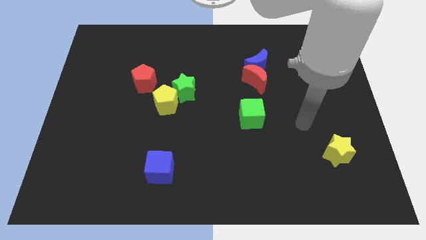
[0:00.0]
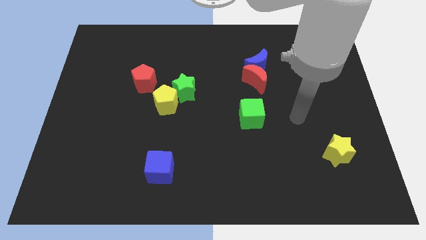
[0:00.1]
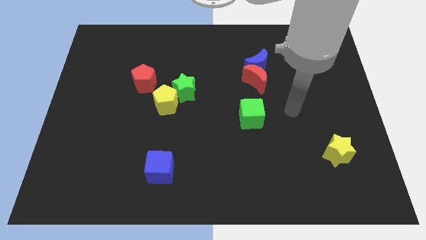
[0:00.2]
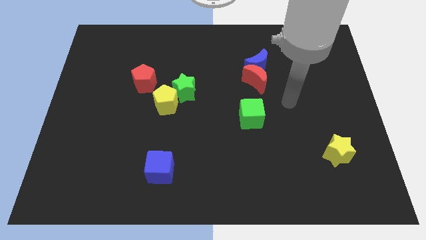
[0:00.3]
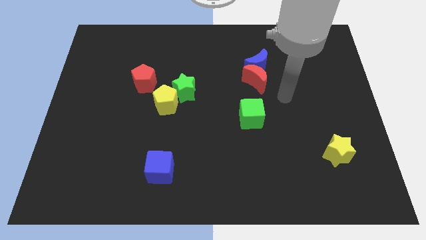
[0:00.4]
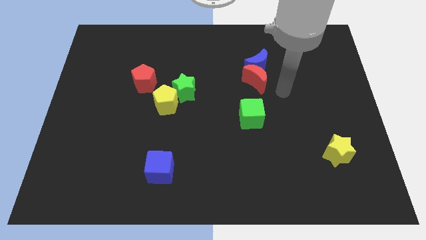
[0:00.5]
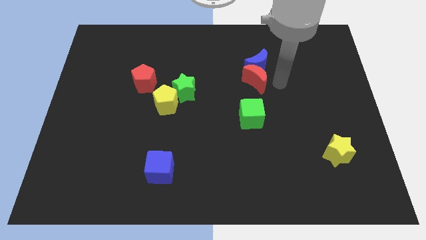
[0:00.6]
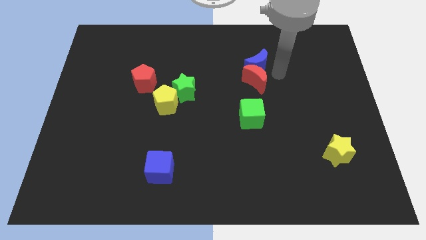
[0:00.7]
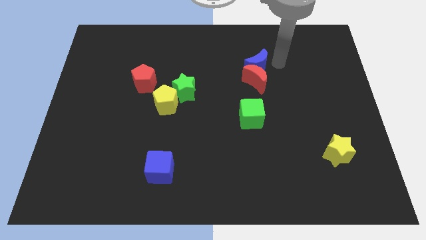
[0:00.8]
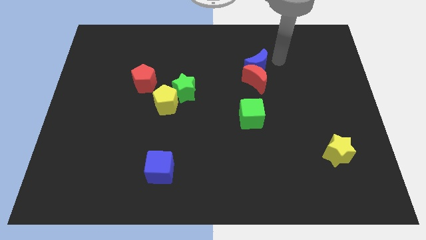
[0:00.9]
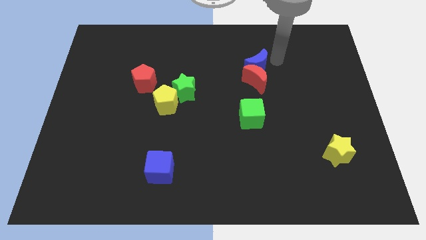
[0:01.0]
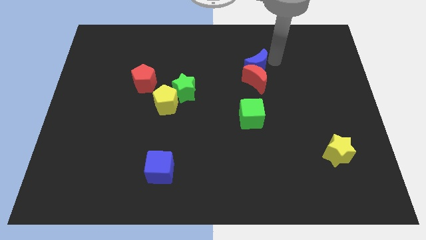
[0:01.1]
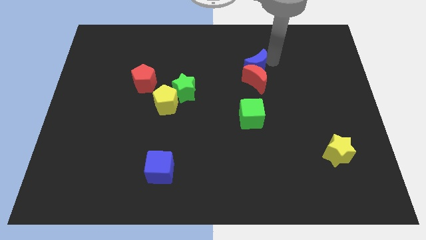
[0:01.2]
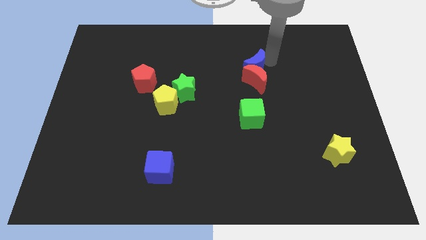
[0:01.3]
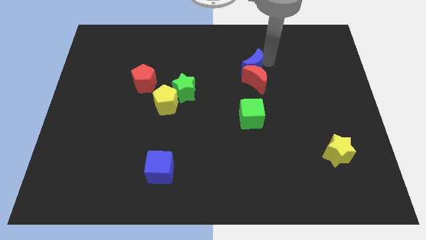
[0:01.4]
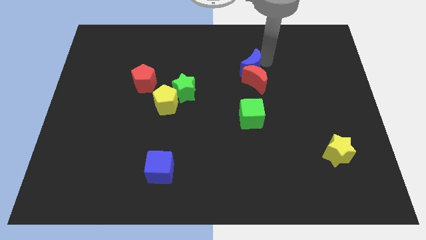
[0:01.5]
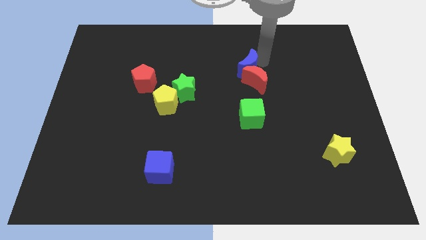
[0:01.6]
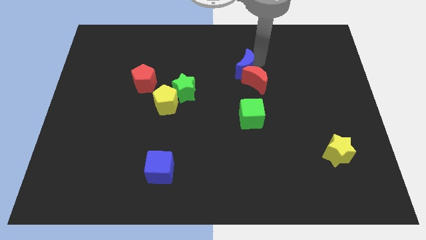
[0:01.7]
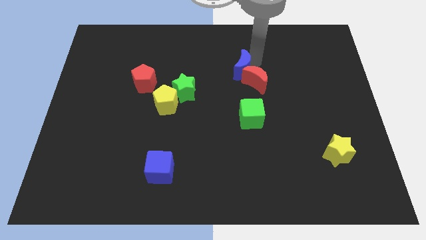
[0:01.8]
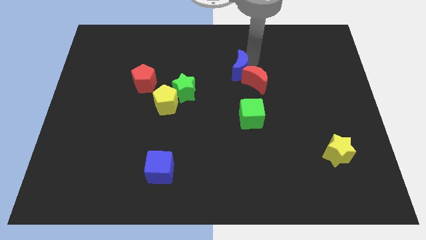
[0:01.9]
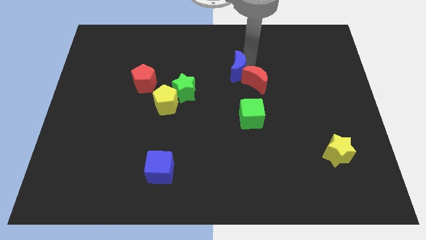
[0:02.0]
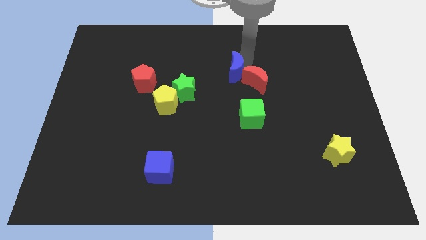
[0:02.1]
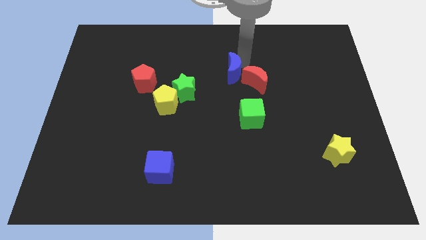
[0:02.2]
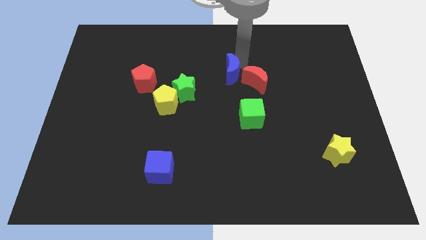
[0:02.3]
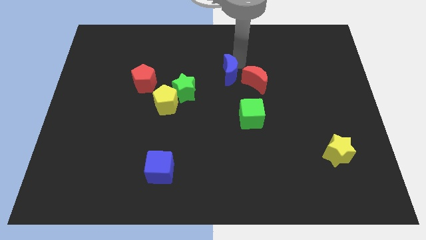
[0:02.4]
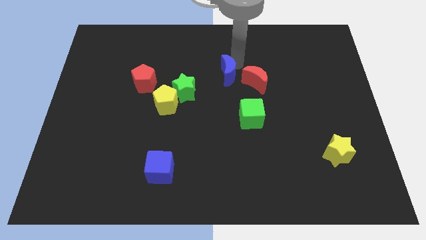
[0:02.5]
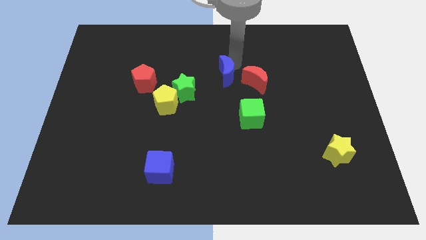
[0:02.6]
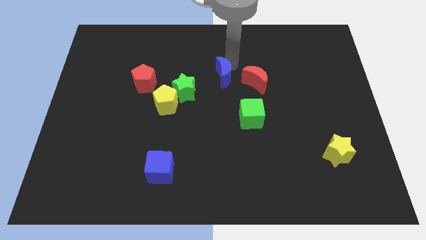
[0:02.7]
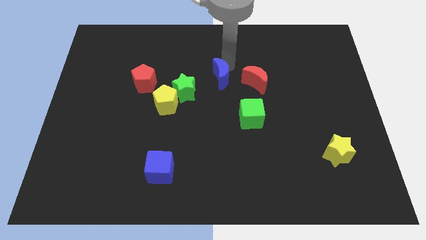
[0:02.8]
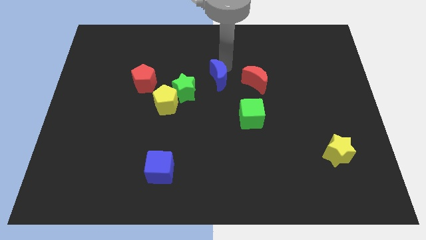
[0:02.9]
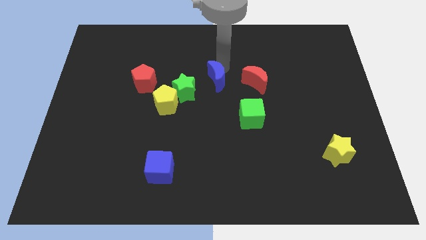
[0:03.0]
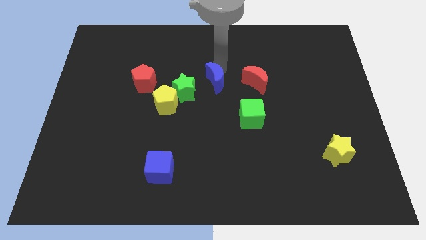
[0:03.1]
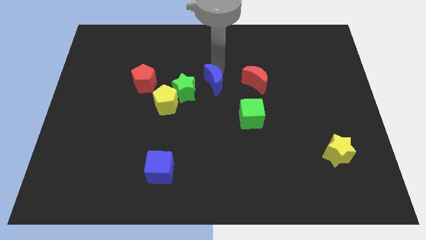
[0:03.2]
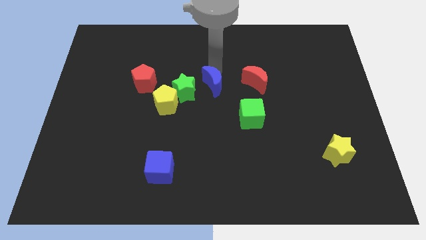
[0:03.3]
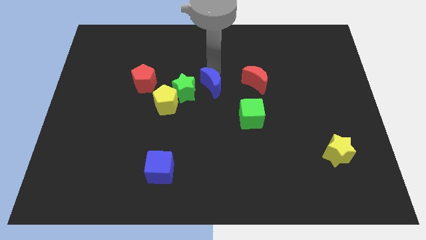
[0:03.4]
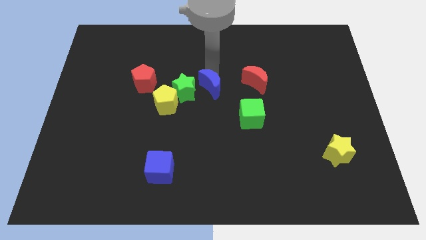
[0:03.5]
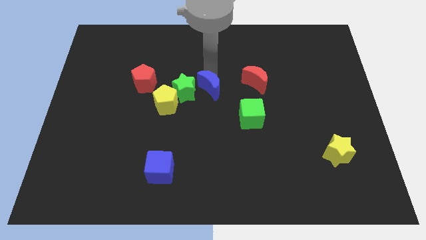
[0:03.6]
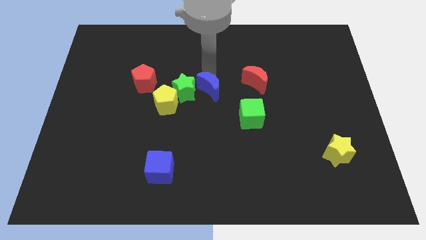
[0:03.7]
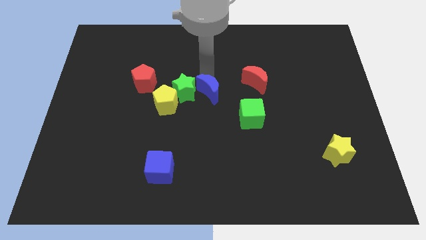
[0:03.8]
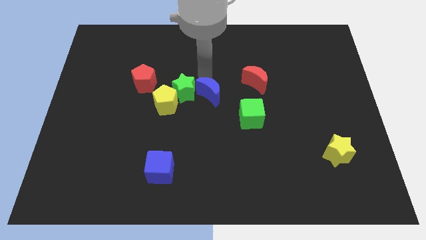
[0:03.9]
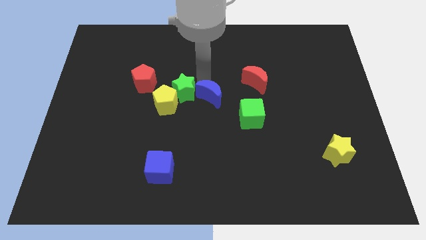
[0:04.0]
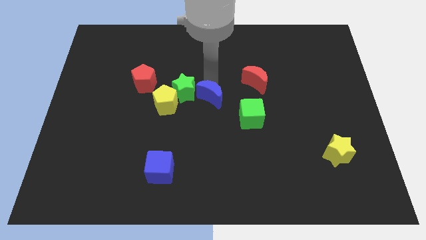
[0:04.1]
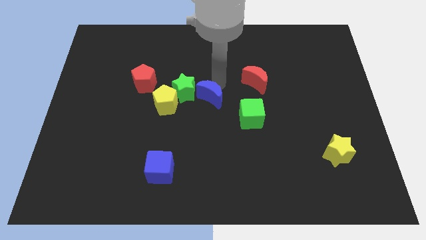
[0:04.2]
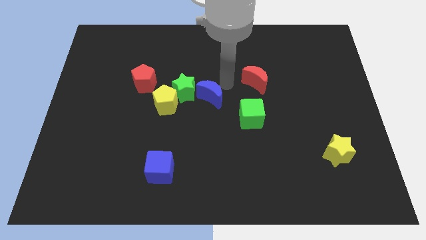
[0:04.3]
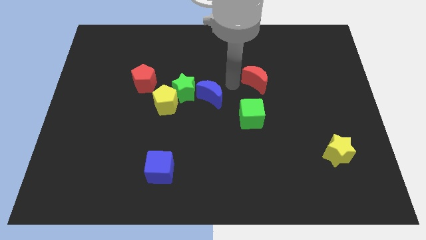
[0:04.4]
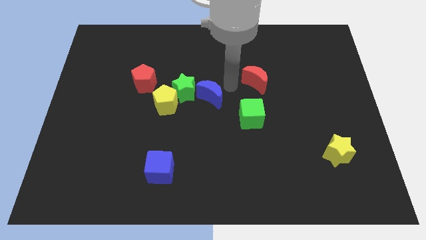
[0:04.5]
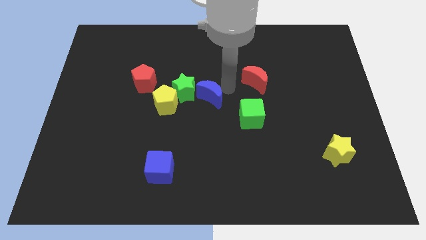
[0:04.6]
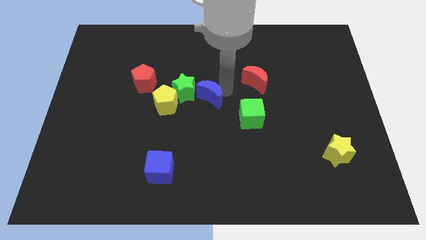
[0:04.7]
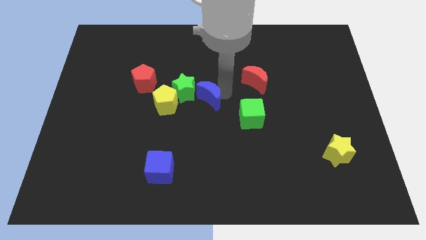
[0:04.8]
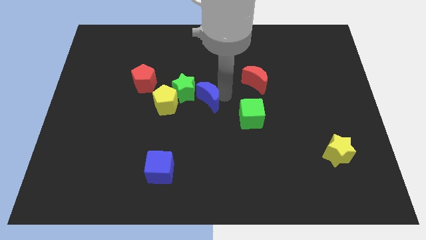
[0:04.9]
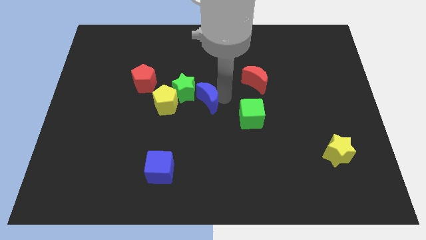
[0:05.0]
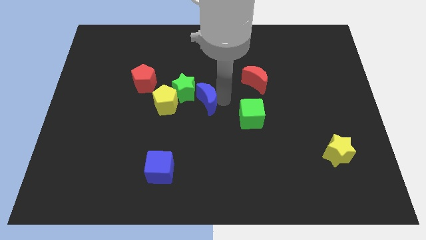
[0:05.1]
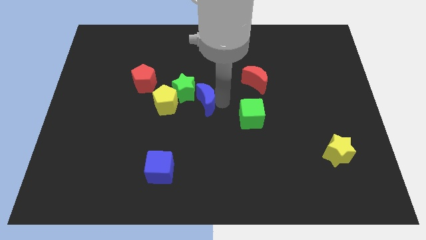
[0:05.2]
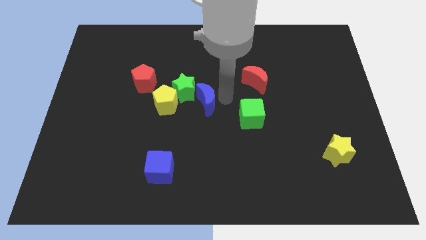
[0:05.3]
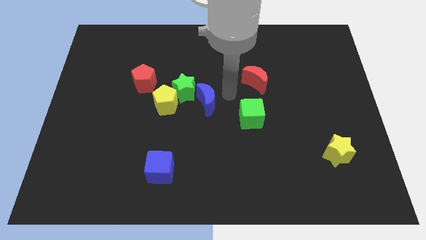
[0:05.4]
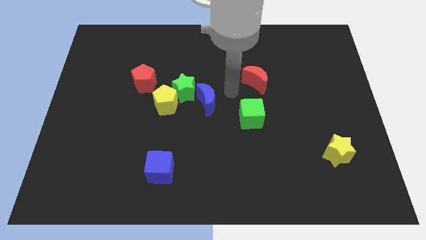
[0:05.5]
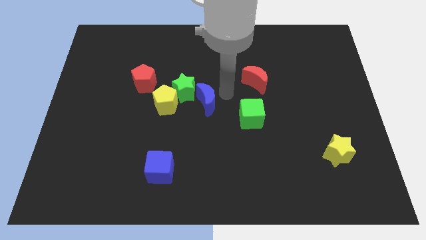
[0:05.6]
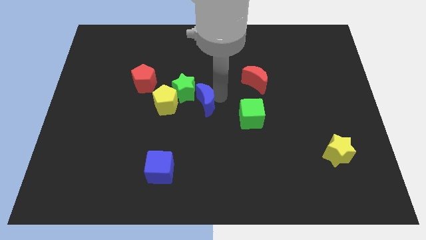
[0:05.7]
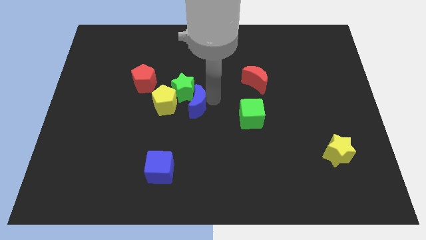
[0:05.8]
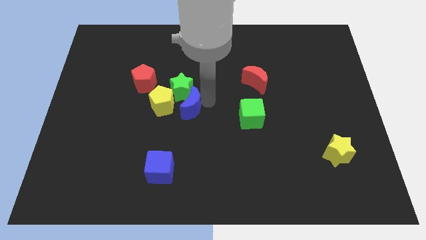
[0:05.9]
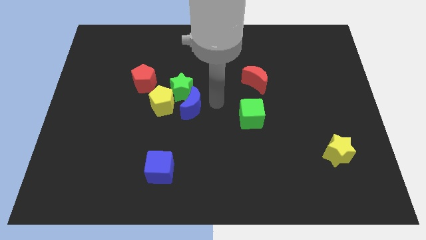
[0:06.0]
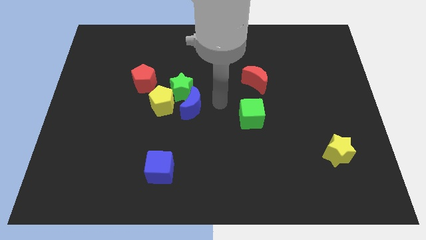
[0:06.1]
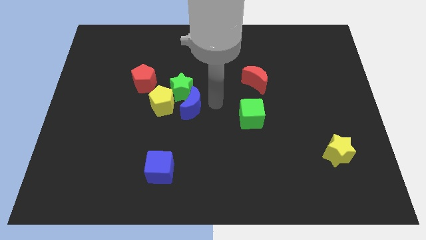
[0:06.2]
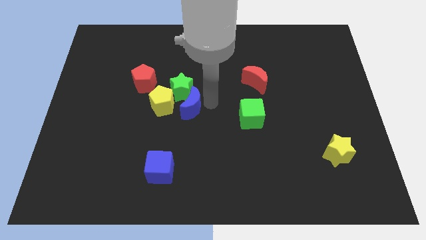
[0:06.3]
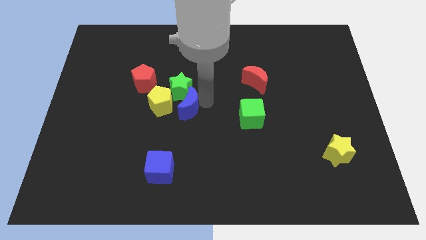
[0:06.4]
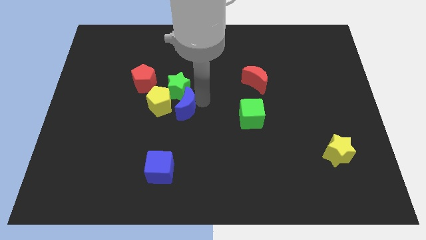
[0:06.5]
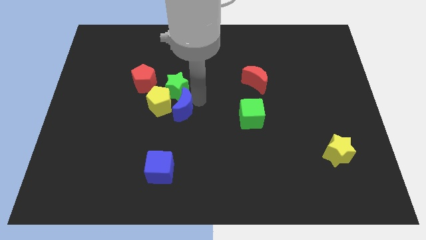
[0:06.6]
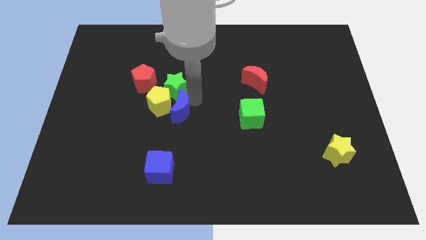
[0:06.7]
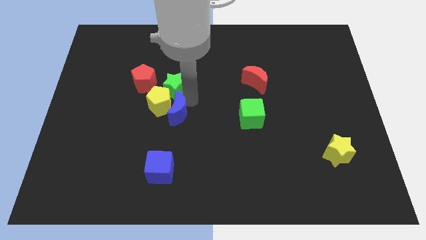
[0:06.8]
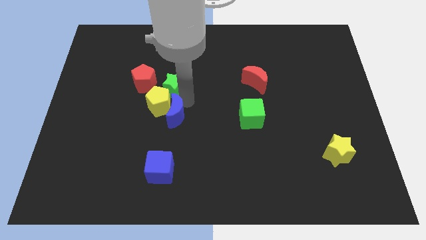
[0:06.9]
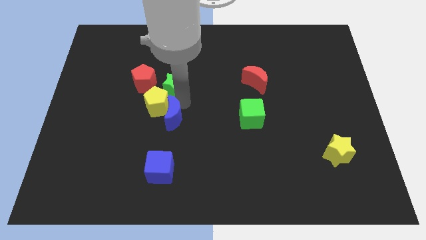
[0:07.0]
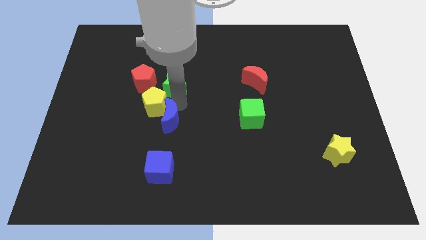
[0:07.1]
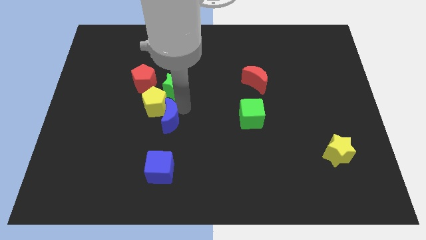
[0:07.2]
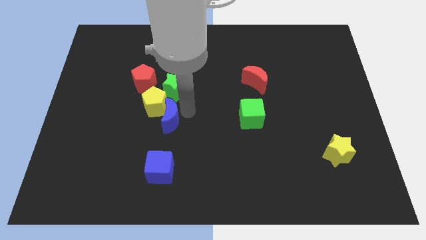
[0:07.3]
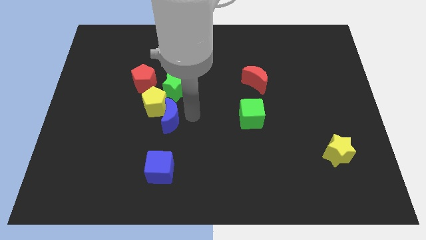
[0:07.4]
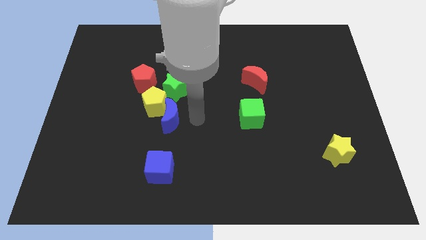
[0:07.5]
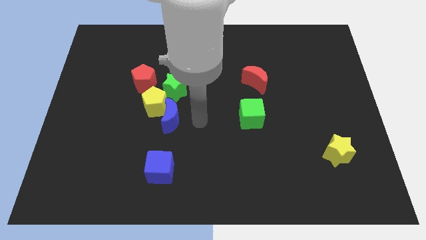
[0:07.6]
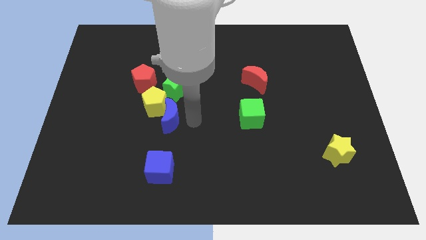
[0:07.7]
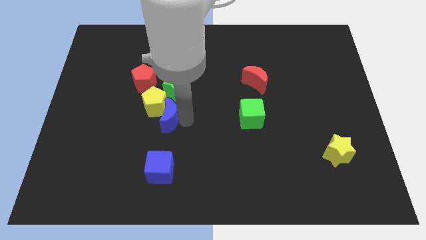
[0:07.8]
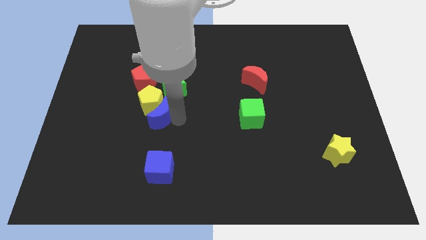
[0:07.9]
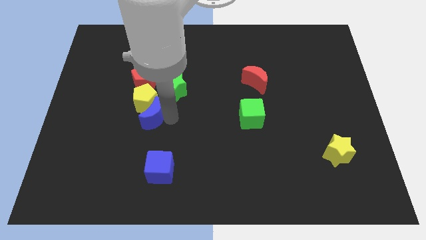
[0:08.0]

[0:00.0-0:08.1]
put the blue moon below the red pentagon
